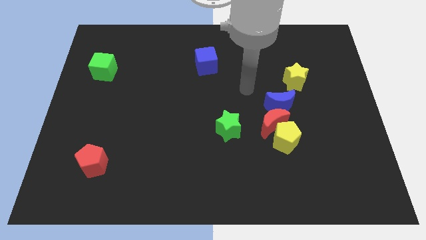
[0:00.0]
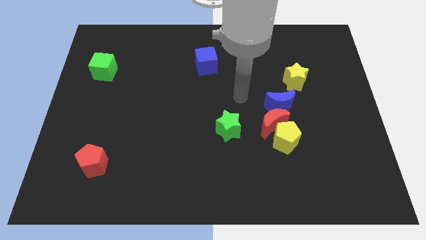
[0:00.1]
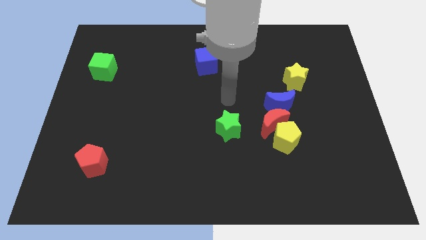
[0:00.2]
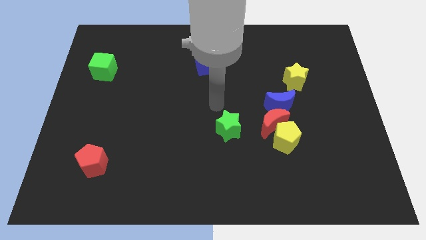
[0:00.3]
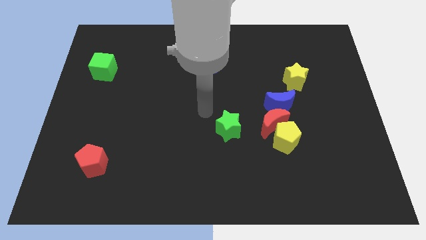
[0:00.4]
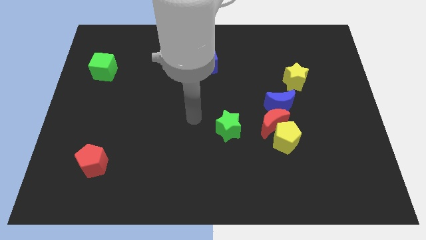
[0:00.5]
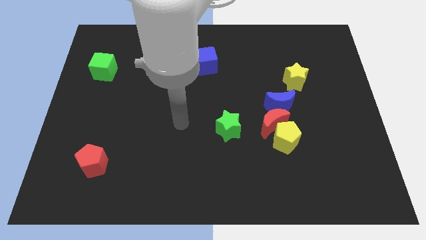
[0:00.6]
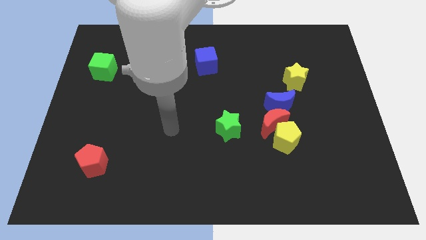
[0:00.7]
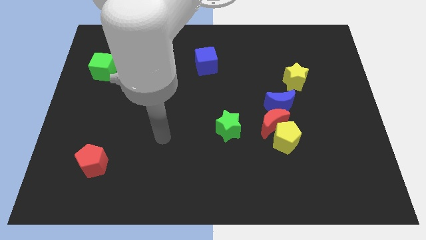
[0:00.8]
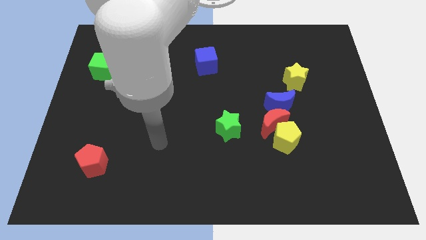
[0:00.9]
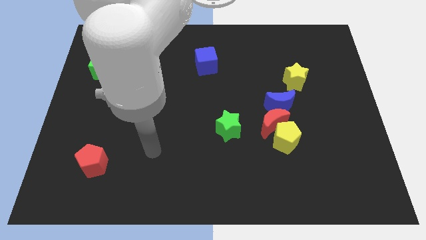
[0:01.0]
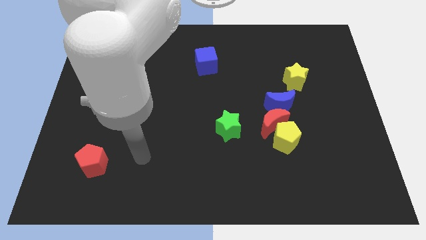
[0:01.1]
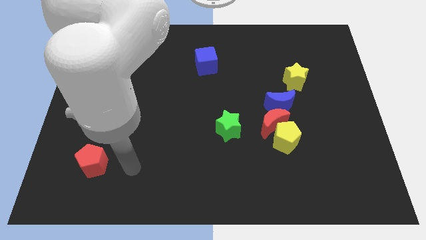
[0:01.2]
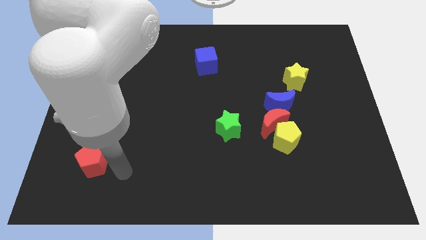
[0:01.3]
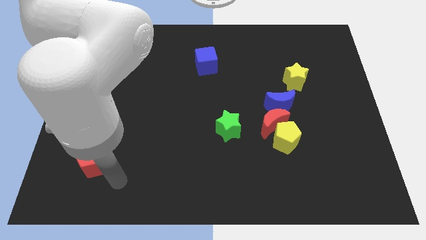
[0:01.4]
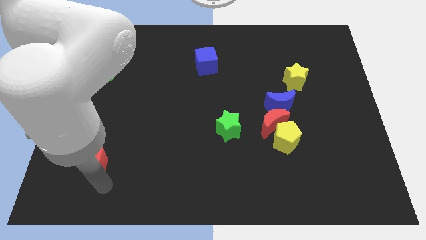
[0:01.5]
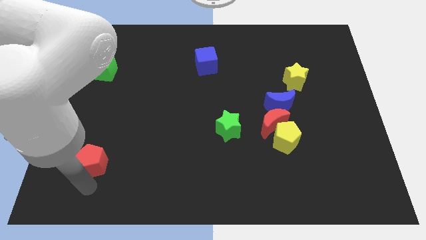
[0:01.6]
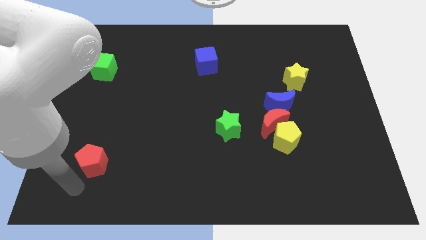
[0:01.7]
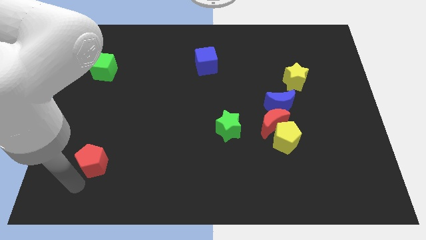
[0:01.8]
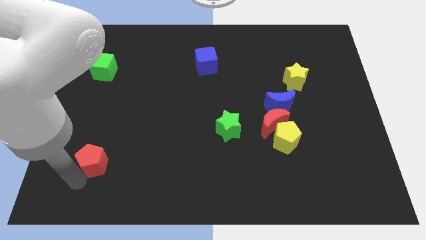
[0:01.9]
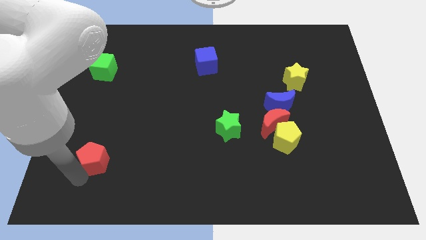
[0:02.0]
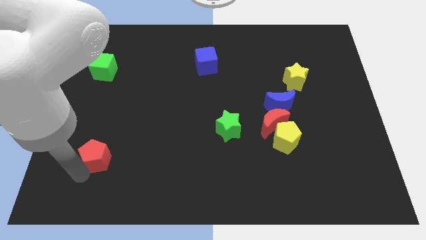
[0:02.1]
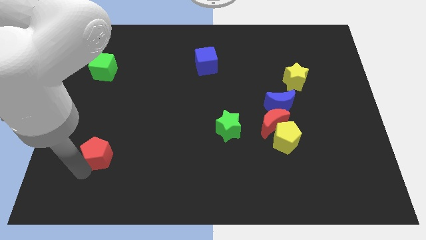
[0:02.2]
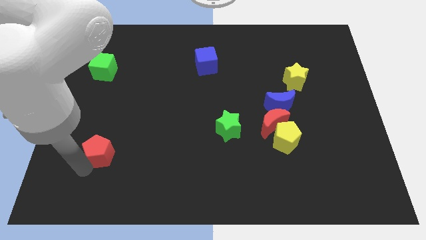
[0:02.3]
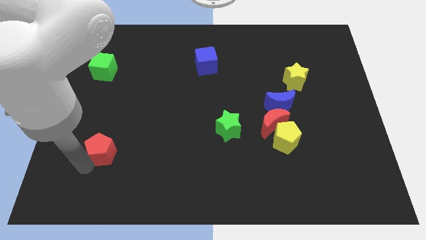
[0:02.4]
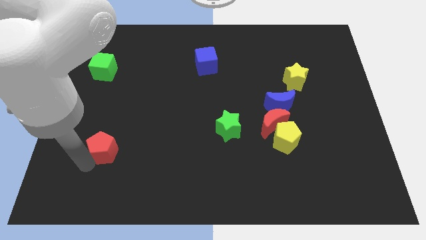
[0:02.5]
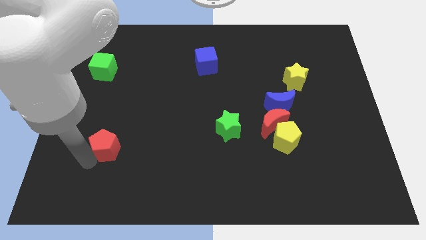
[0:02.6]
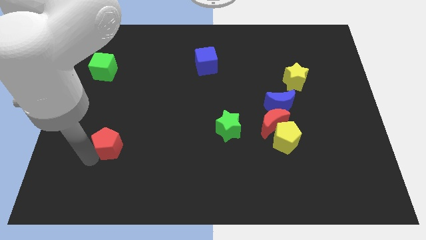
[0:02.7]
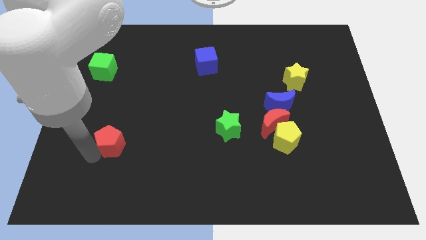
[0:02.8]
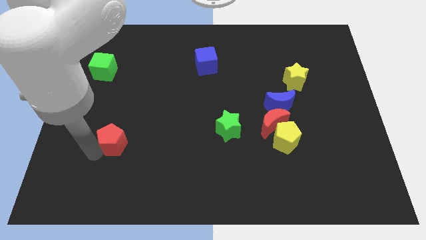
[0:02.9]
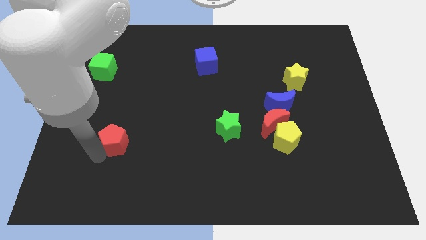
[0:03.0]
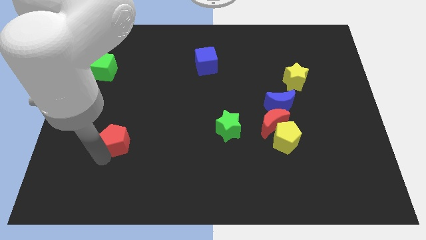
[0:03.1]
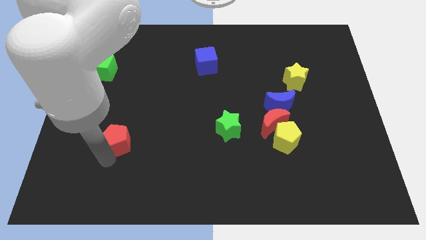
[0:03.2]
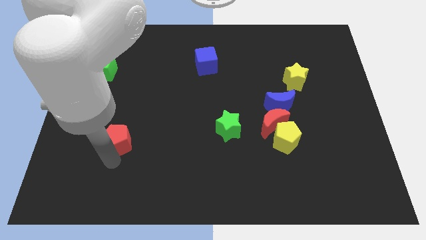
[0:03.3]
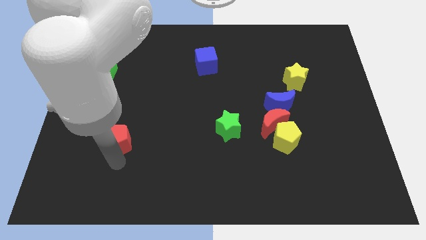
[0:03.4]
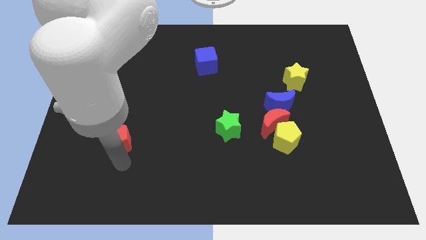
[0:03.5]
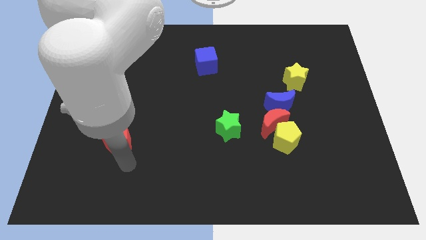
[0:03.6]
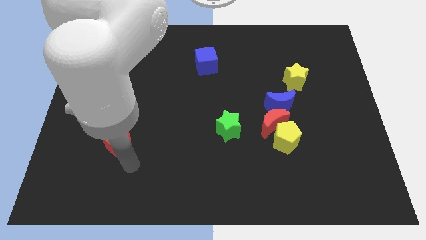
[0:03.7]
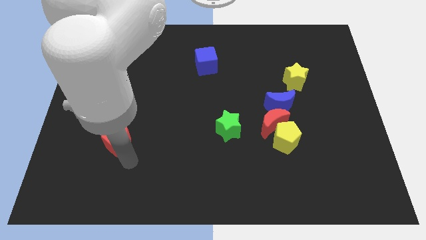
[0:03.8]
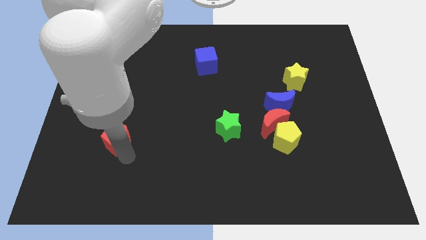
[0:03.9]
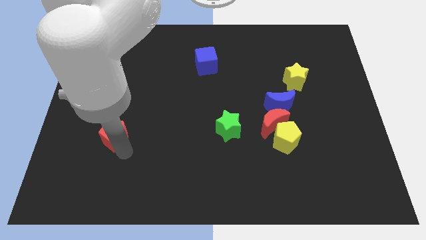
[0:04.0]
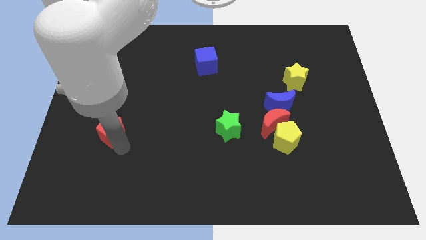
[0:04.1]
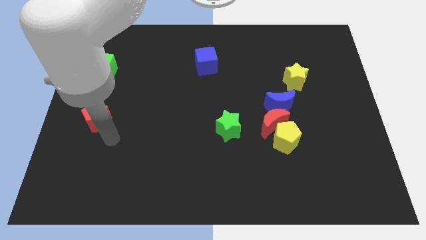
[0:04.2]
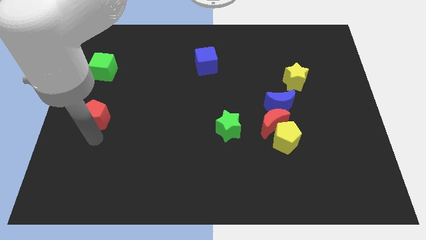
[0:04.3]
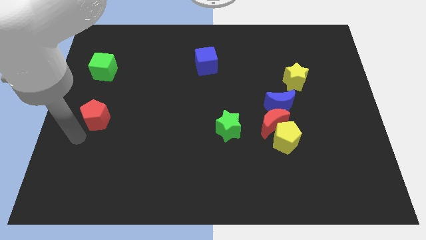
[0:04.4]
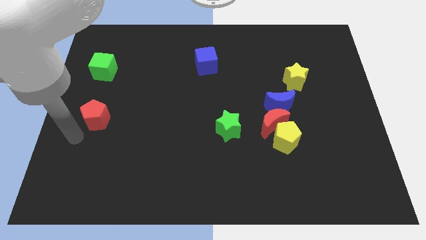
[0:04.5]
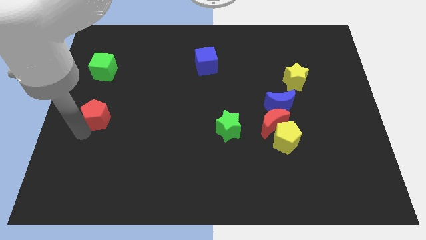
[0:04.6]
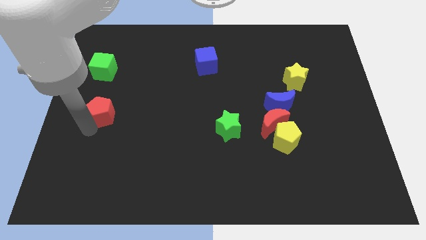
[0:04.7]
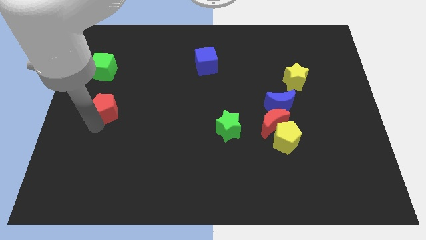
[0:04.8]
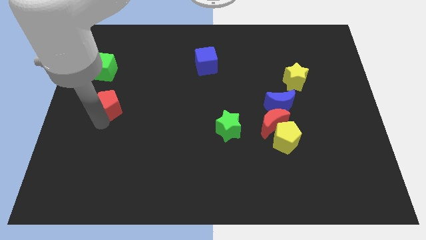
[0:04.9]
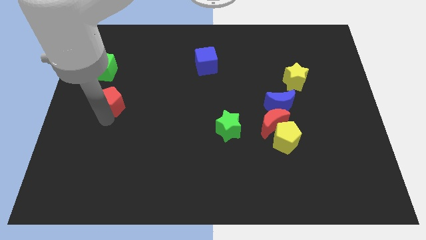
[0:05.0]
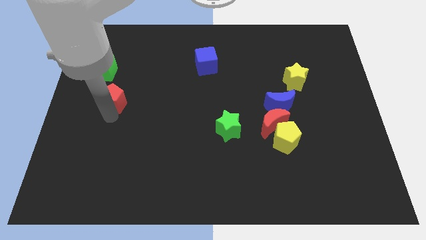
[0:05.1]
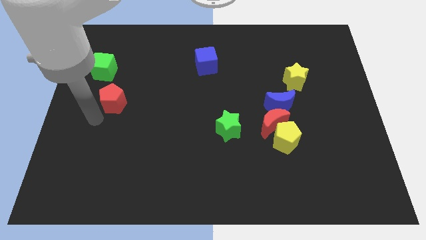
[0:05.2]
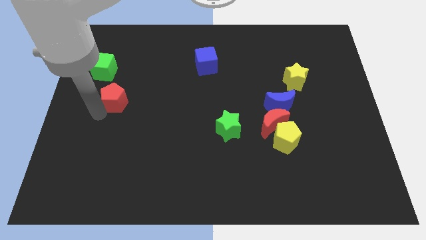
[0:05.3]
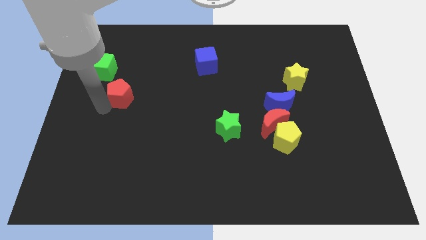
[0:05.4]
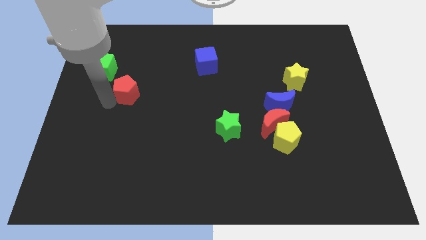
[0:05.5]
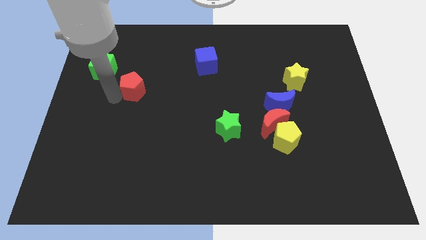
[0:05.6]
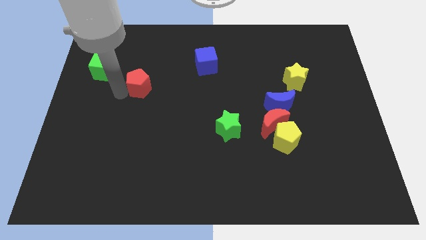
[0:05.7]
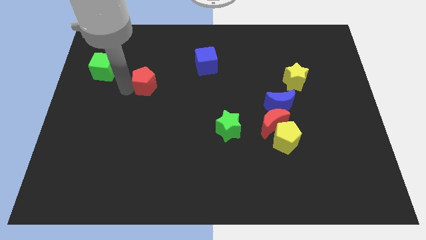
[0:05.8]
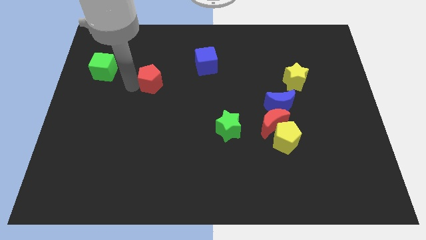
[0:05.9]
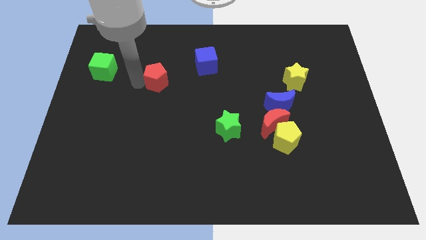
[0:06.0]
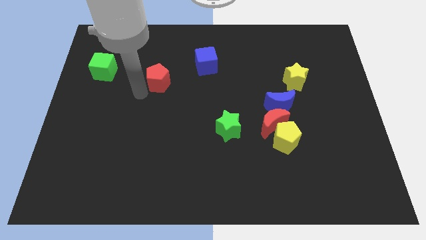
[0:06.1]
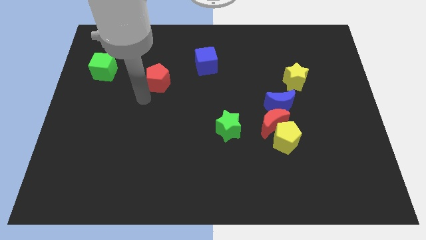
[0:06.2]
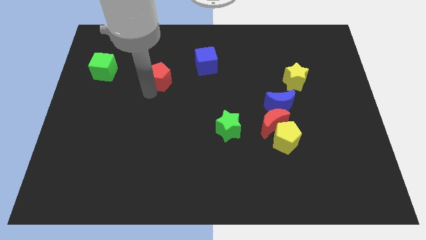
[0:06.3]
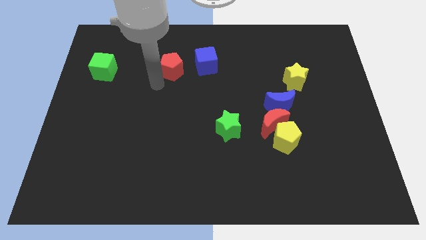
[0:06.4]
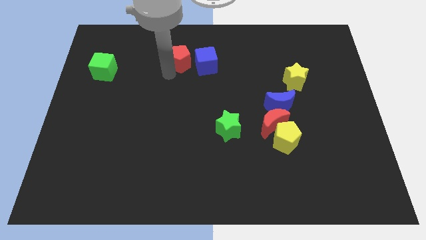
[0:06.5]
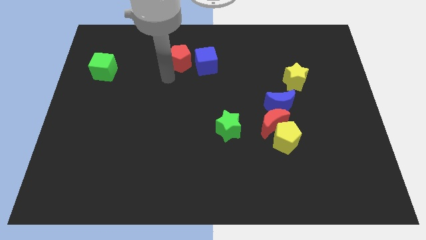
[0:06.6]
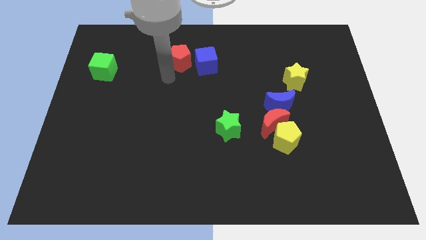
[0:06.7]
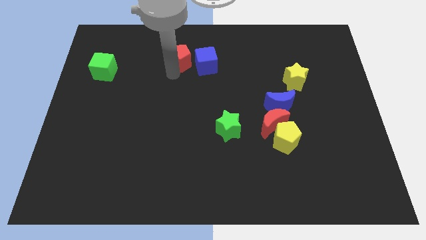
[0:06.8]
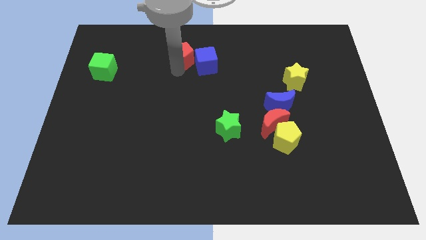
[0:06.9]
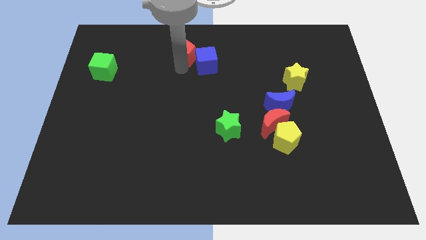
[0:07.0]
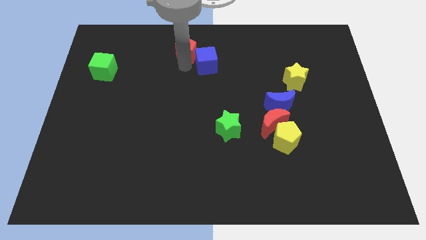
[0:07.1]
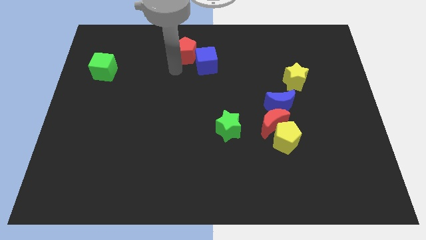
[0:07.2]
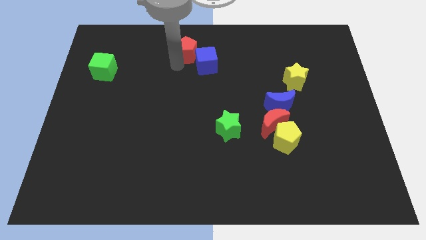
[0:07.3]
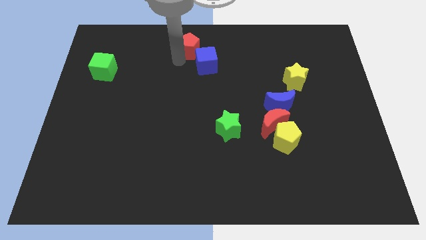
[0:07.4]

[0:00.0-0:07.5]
put the red pentagon to the top
